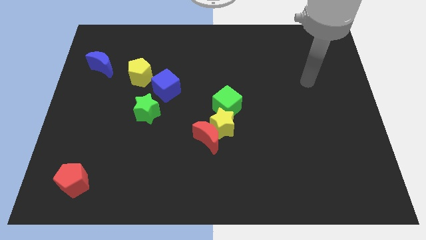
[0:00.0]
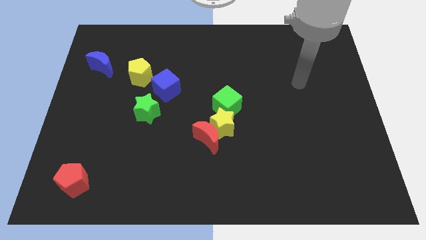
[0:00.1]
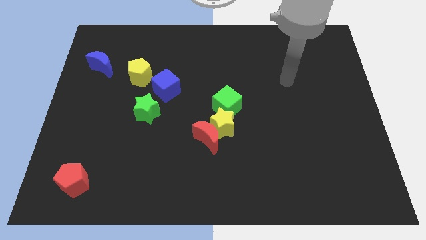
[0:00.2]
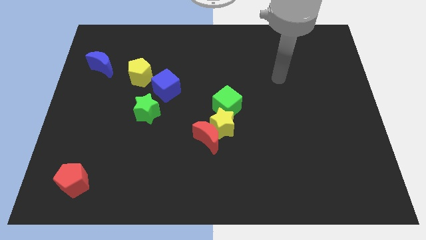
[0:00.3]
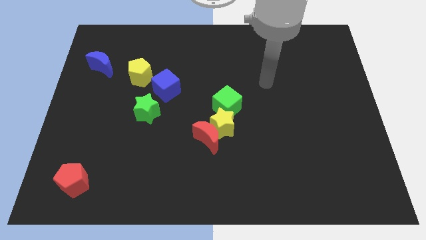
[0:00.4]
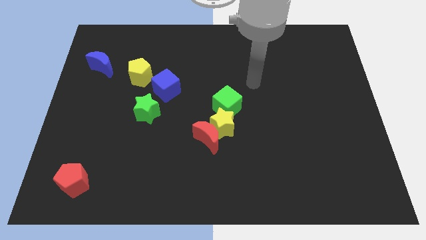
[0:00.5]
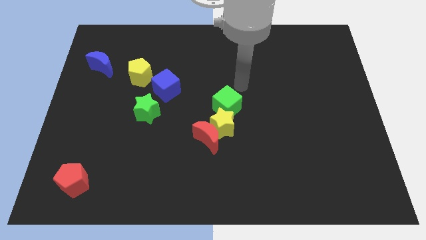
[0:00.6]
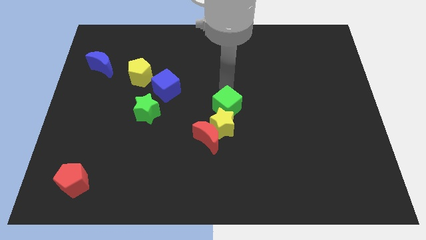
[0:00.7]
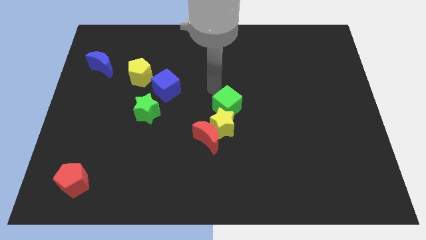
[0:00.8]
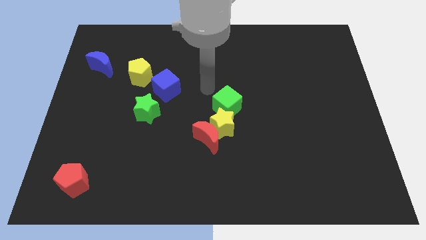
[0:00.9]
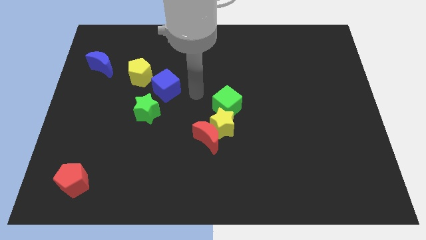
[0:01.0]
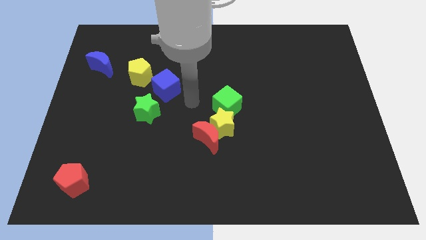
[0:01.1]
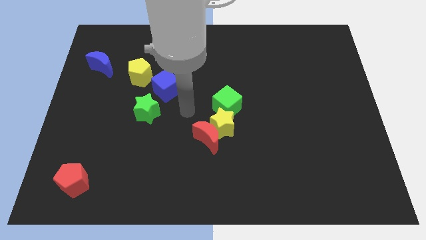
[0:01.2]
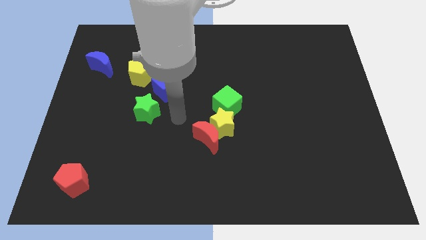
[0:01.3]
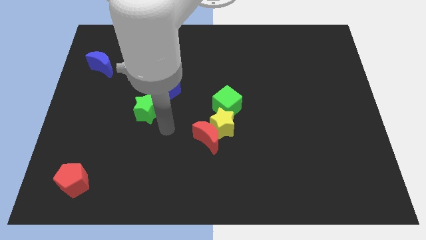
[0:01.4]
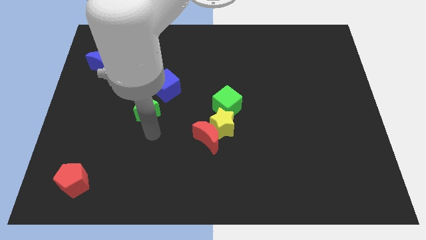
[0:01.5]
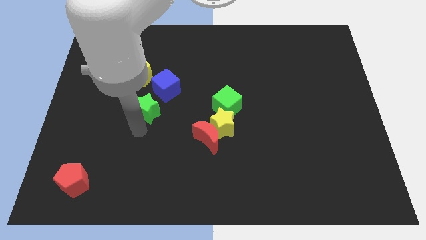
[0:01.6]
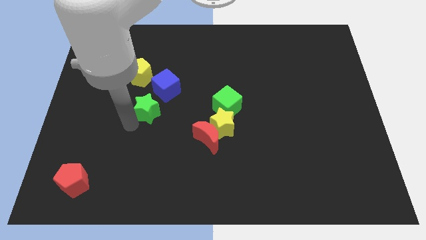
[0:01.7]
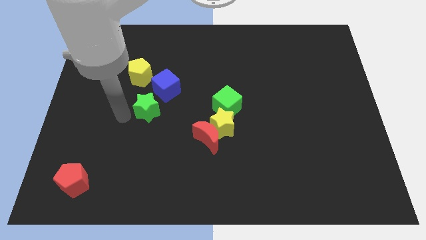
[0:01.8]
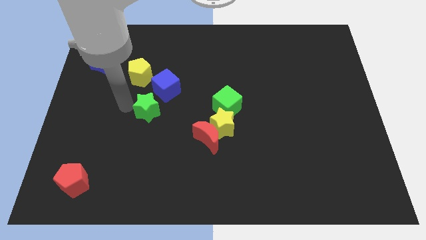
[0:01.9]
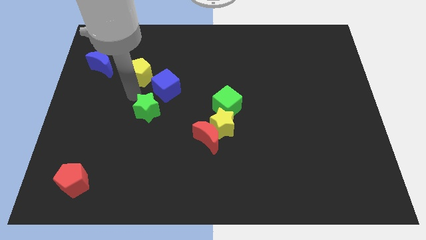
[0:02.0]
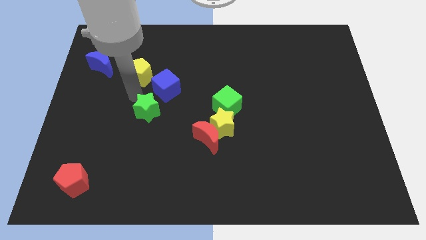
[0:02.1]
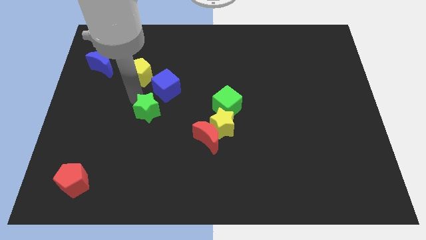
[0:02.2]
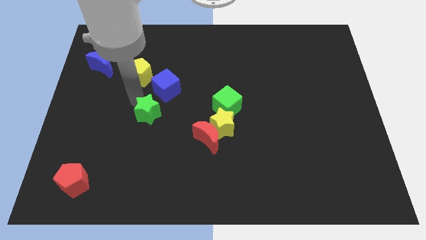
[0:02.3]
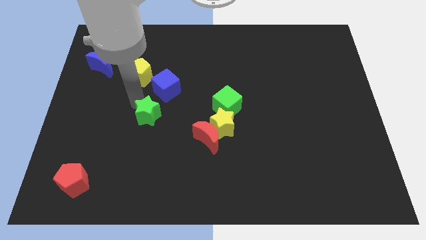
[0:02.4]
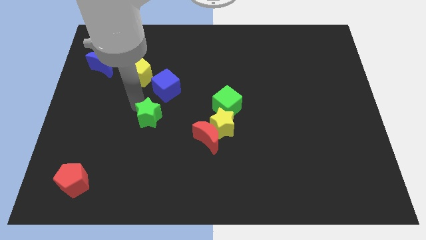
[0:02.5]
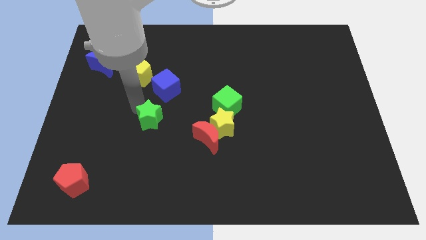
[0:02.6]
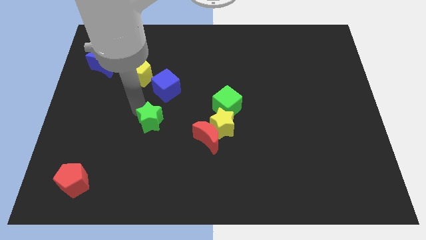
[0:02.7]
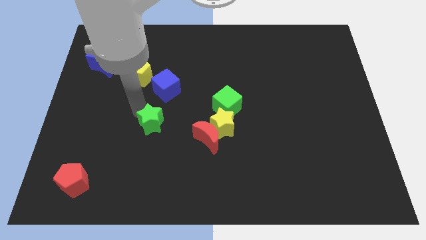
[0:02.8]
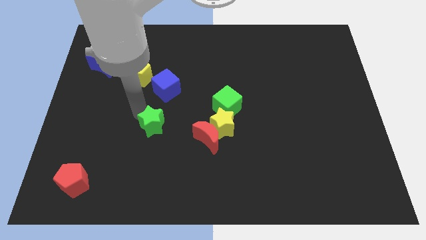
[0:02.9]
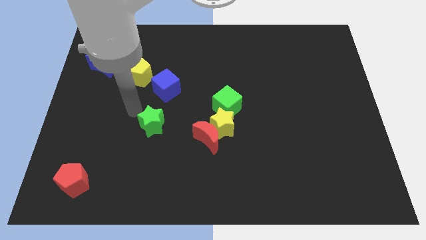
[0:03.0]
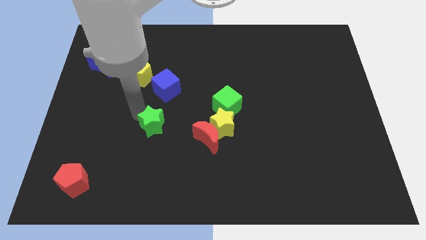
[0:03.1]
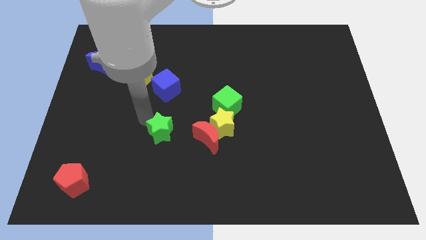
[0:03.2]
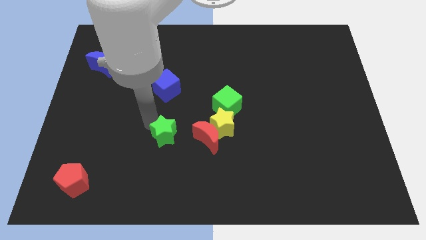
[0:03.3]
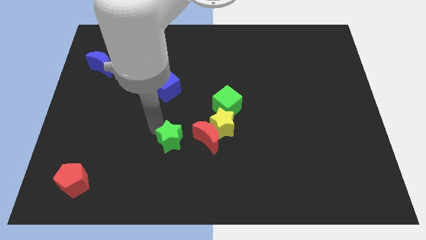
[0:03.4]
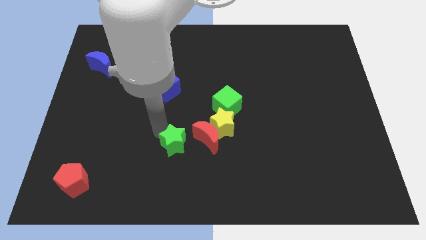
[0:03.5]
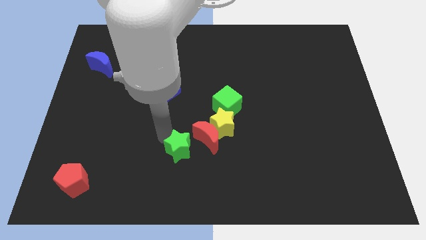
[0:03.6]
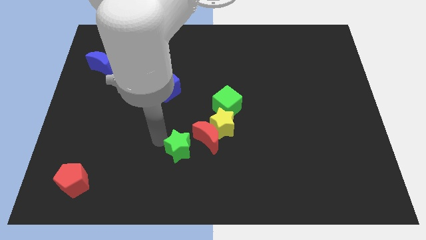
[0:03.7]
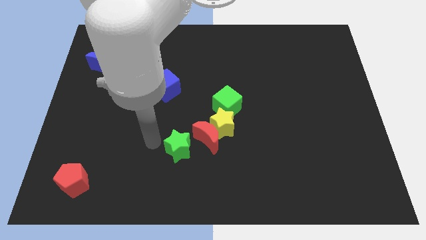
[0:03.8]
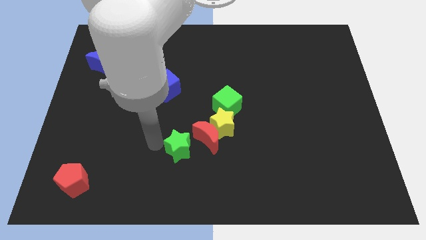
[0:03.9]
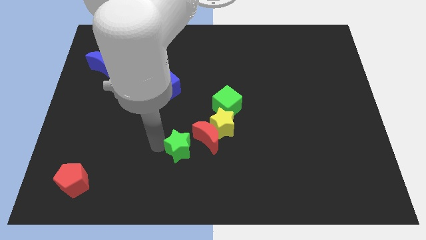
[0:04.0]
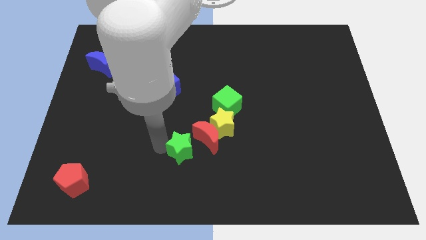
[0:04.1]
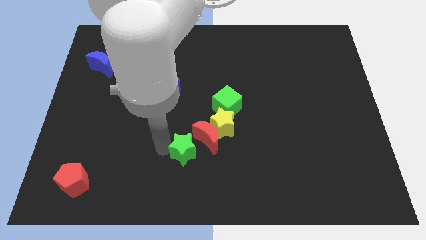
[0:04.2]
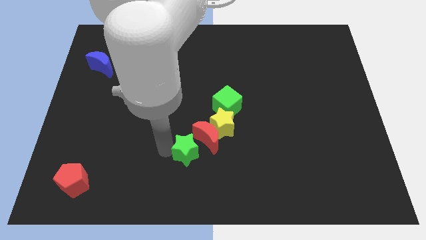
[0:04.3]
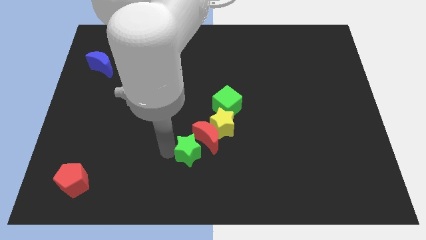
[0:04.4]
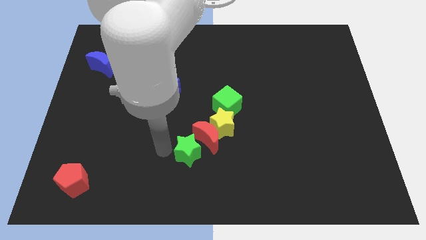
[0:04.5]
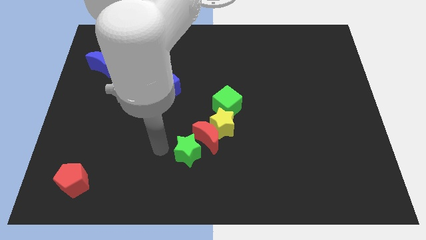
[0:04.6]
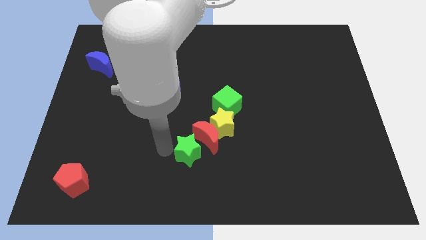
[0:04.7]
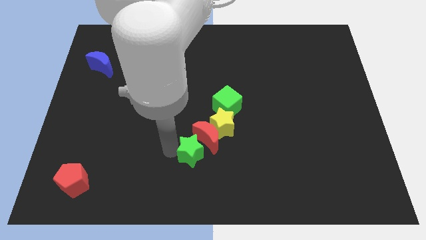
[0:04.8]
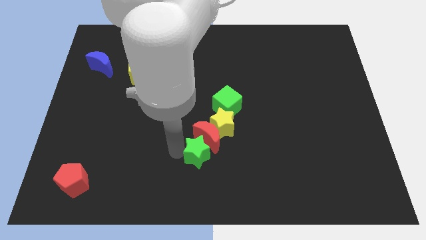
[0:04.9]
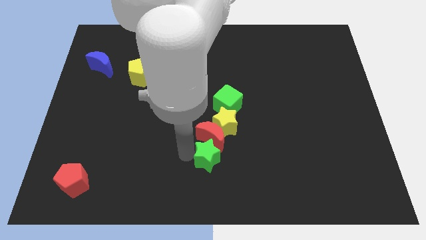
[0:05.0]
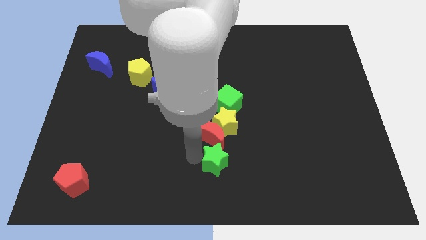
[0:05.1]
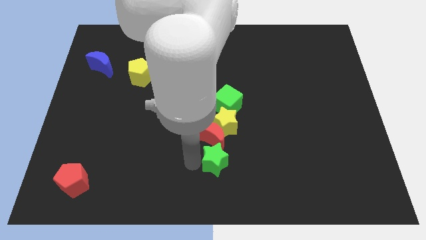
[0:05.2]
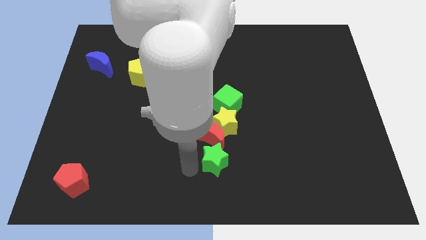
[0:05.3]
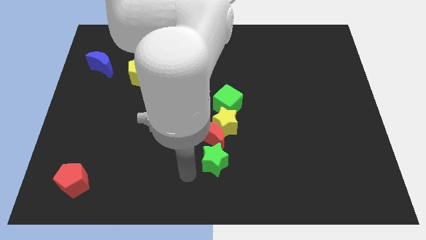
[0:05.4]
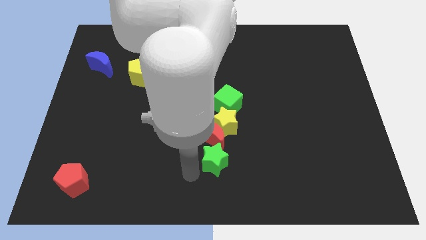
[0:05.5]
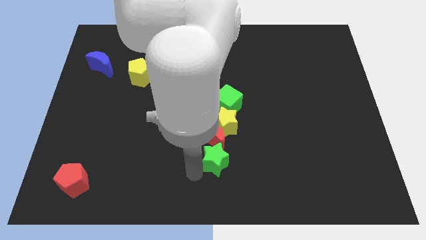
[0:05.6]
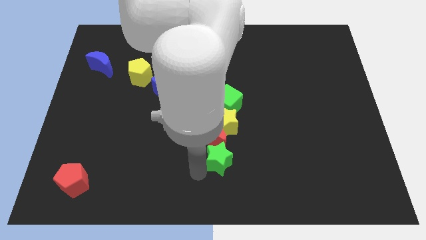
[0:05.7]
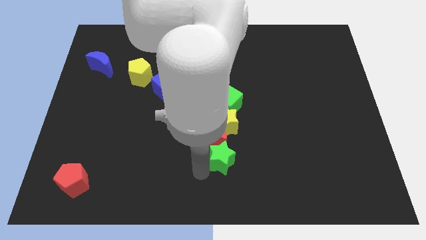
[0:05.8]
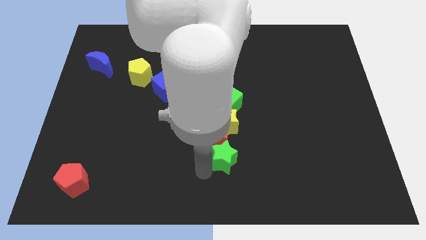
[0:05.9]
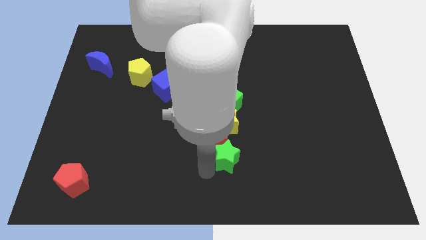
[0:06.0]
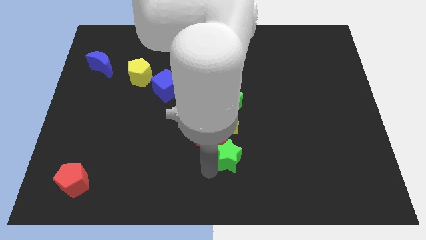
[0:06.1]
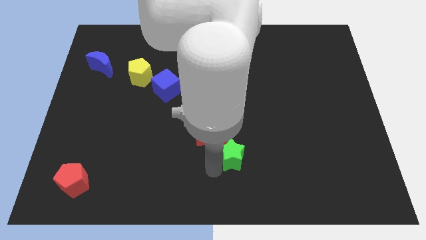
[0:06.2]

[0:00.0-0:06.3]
push the green star right of the red moon

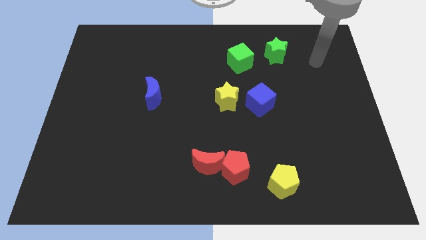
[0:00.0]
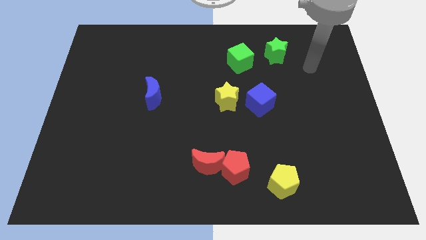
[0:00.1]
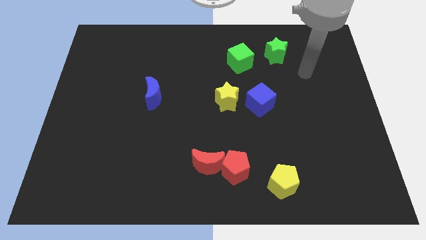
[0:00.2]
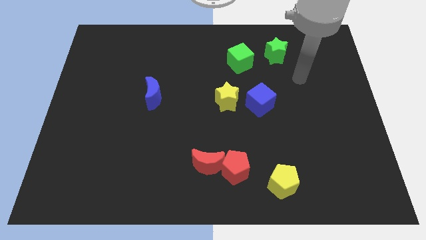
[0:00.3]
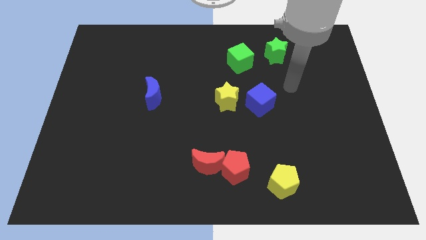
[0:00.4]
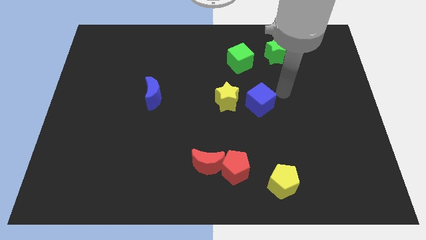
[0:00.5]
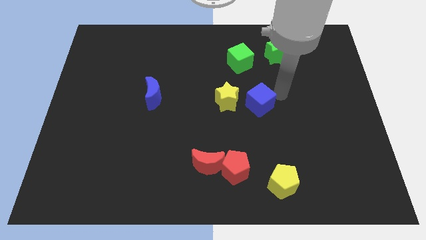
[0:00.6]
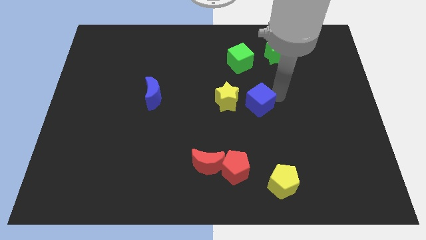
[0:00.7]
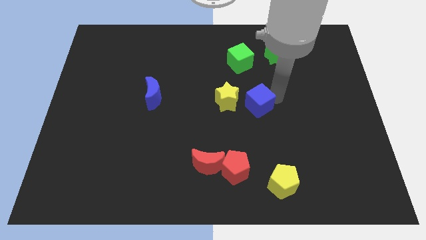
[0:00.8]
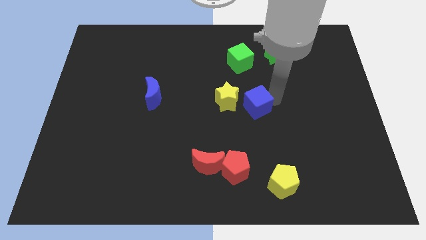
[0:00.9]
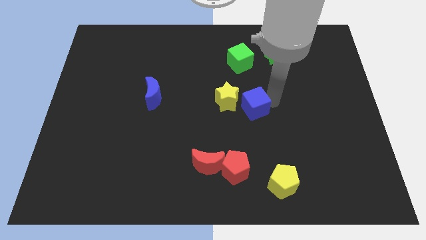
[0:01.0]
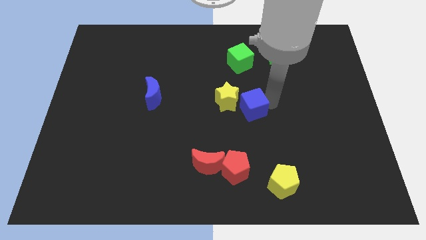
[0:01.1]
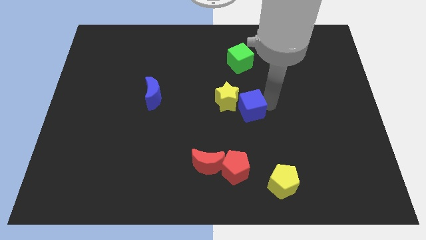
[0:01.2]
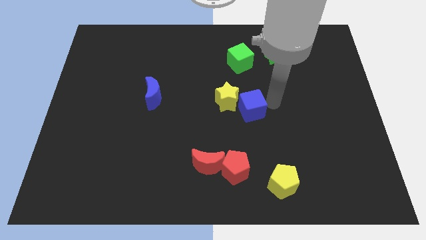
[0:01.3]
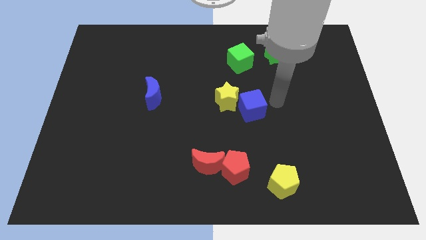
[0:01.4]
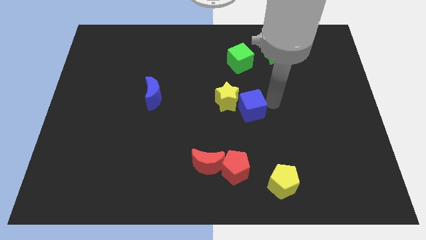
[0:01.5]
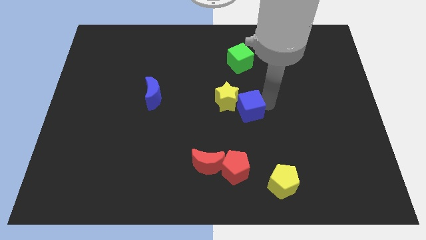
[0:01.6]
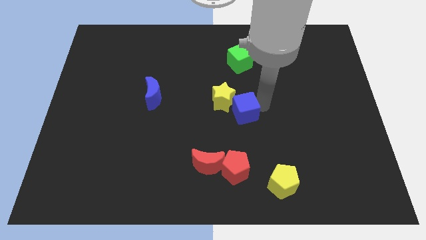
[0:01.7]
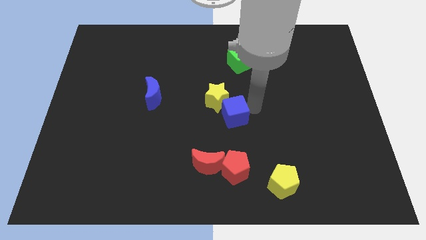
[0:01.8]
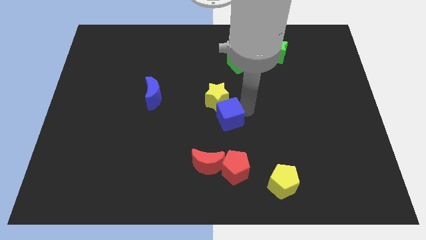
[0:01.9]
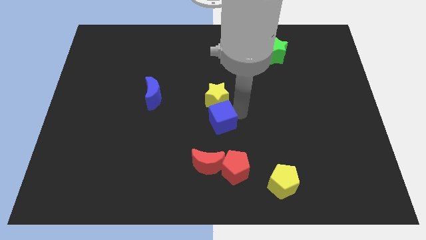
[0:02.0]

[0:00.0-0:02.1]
push the blue cube to the top of the red moon
